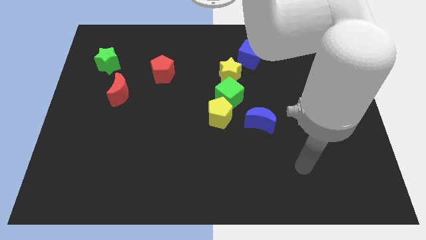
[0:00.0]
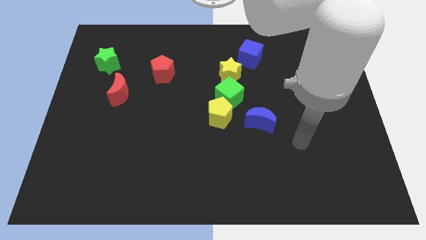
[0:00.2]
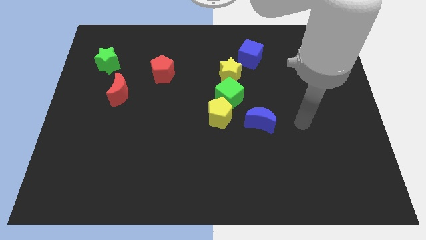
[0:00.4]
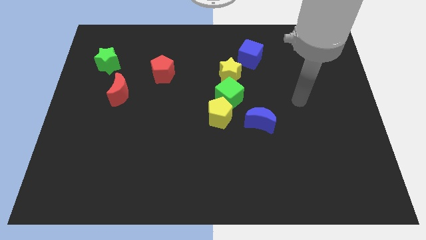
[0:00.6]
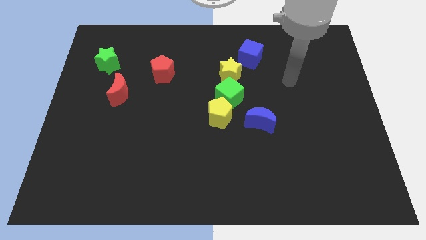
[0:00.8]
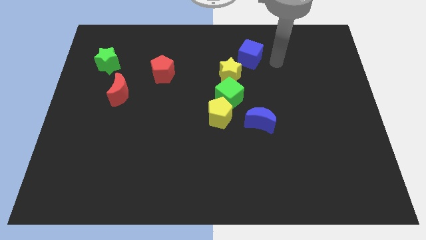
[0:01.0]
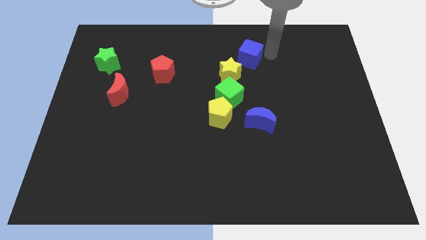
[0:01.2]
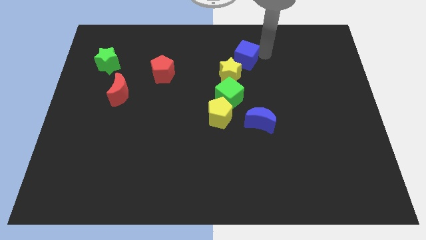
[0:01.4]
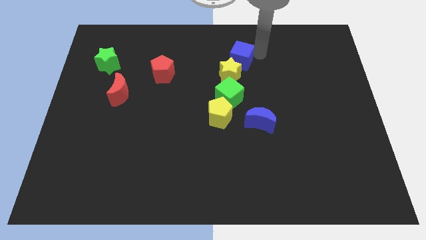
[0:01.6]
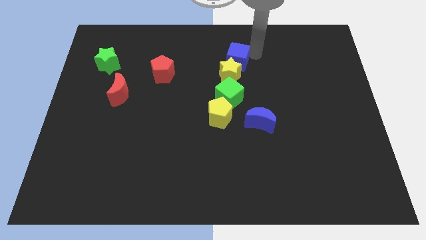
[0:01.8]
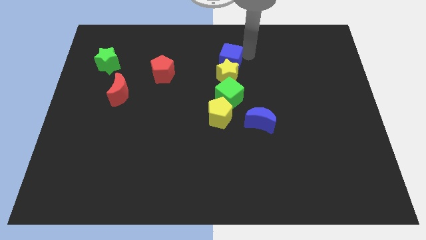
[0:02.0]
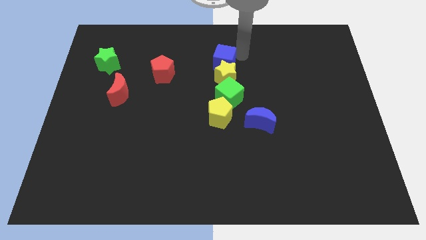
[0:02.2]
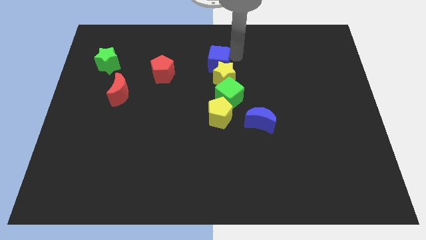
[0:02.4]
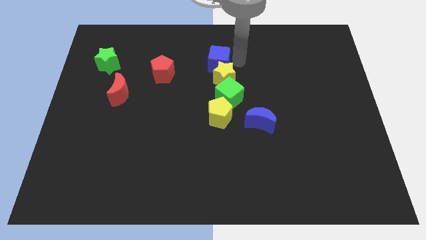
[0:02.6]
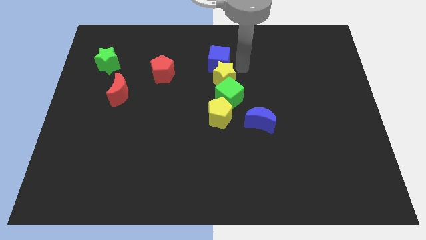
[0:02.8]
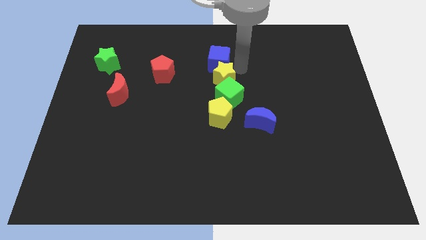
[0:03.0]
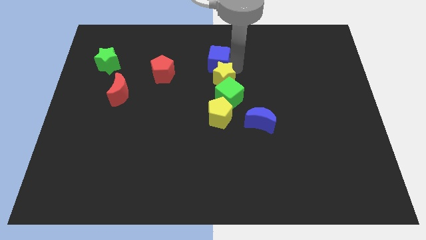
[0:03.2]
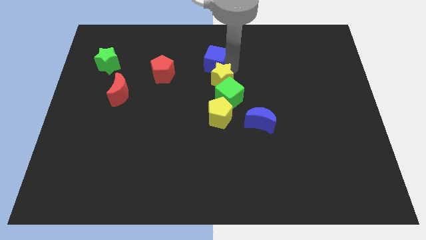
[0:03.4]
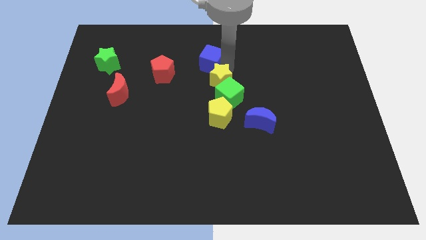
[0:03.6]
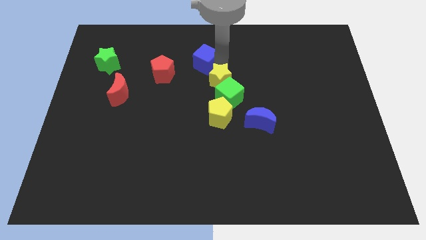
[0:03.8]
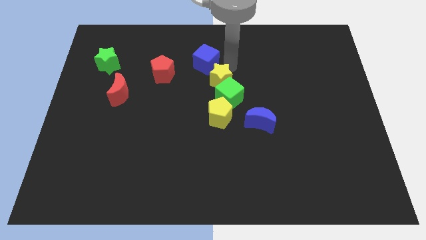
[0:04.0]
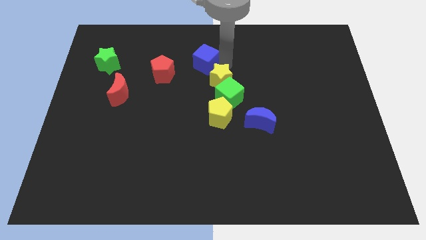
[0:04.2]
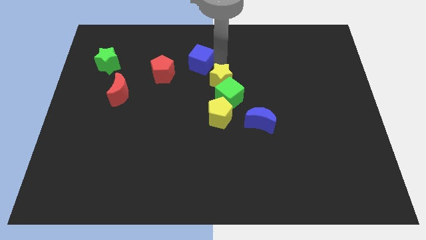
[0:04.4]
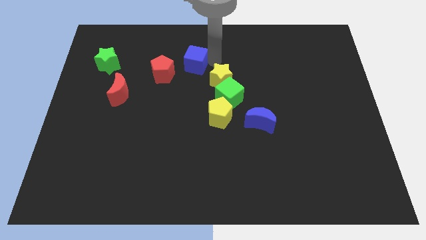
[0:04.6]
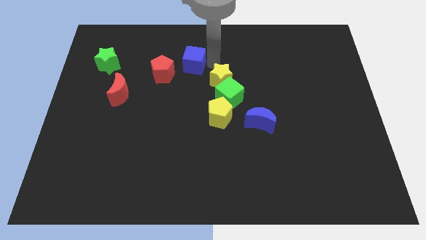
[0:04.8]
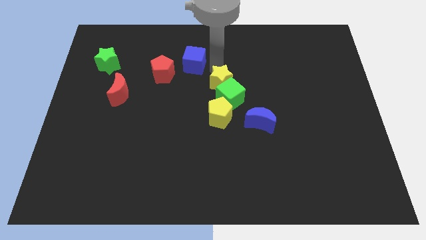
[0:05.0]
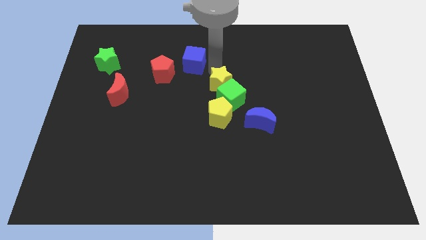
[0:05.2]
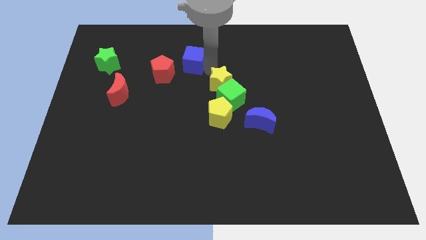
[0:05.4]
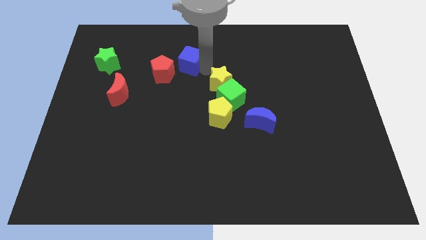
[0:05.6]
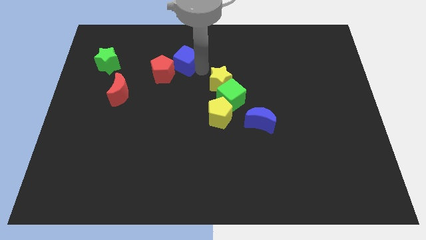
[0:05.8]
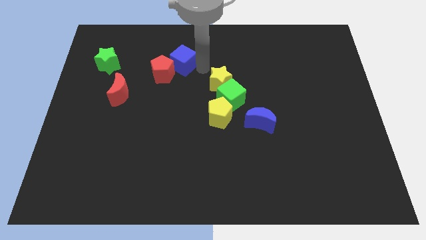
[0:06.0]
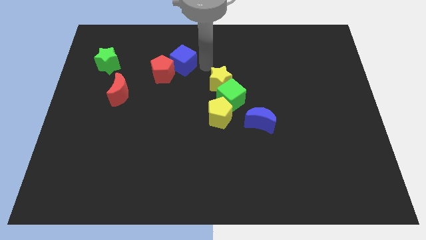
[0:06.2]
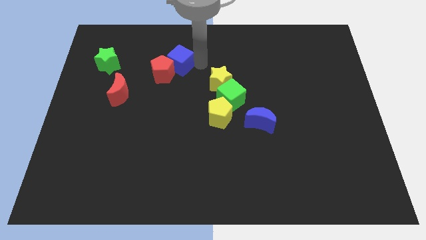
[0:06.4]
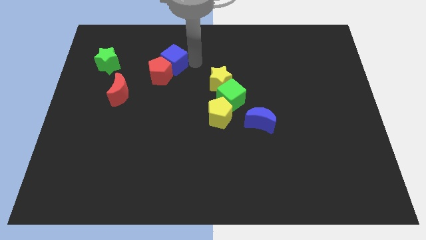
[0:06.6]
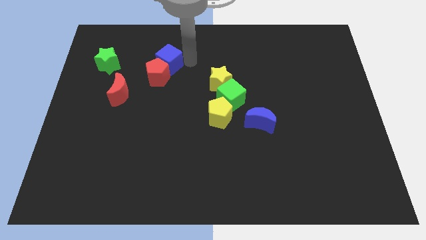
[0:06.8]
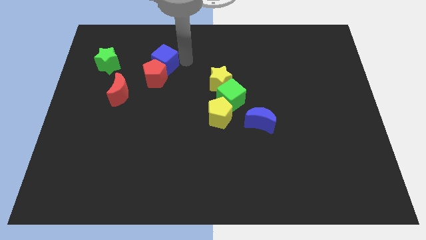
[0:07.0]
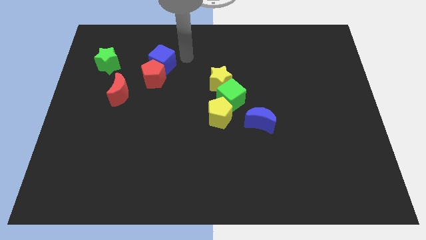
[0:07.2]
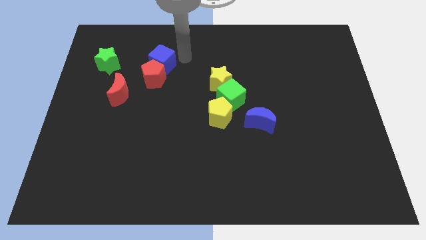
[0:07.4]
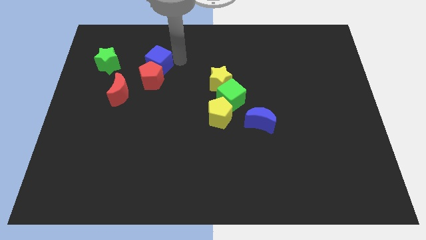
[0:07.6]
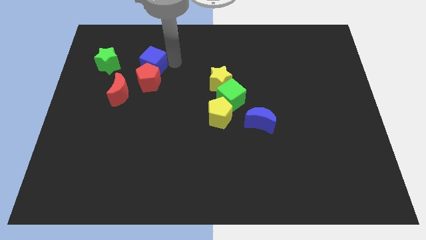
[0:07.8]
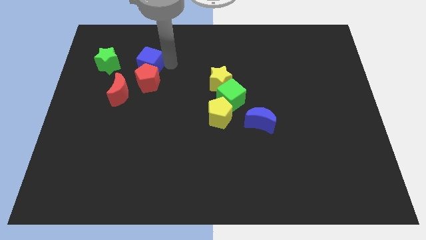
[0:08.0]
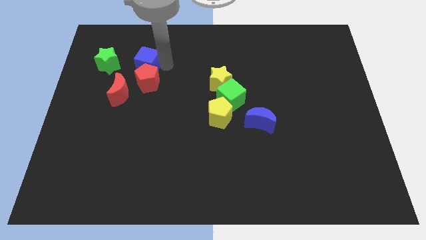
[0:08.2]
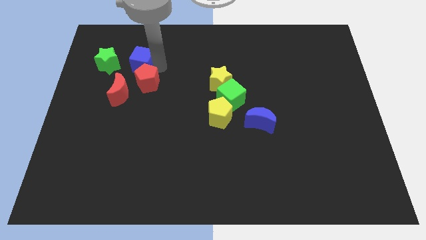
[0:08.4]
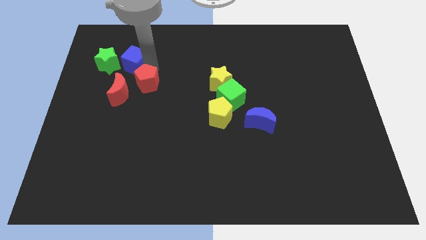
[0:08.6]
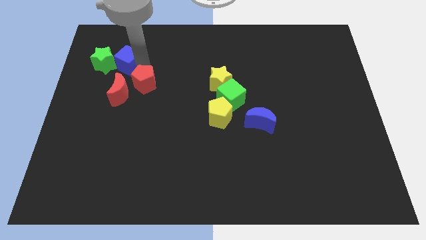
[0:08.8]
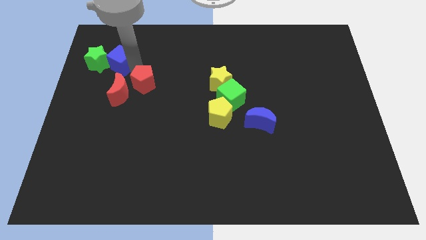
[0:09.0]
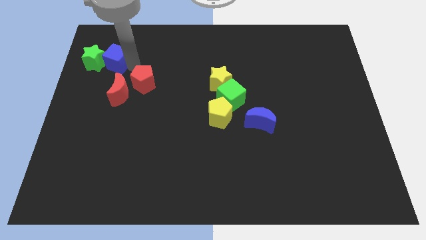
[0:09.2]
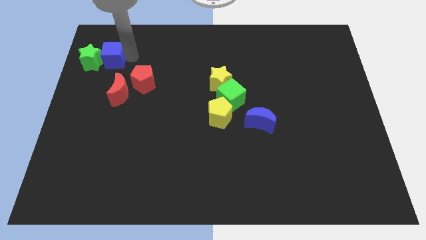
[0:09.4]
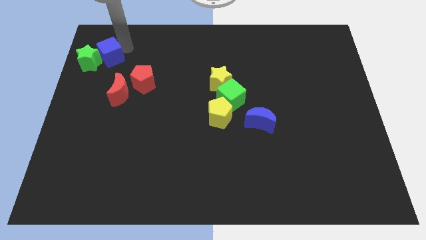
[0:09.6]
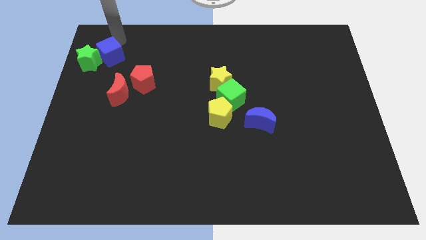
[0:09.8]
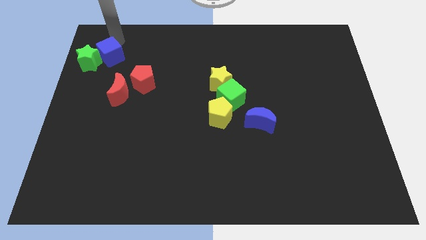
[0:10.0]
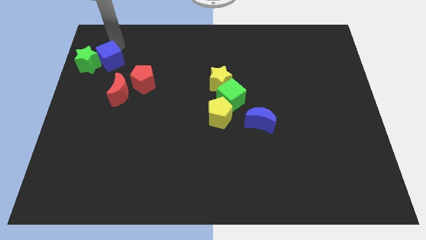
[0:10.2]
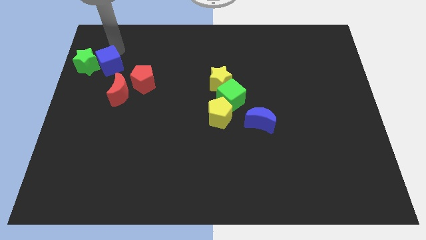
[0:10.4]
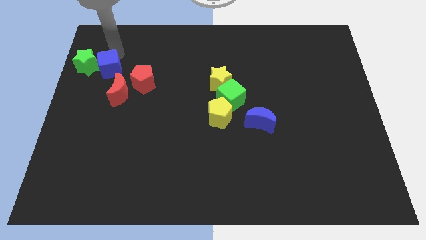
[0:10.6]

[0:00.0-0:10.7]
push the blue cube to the left of the red pentagon
